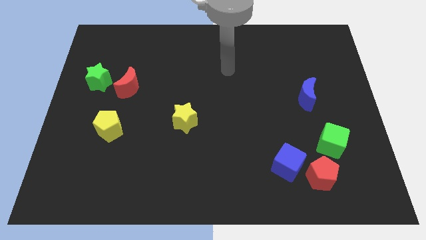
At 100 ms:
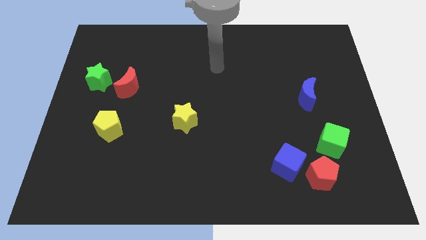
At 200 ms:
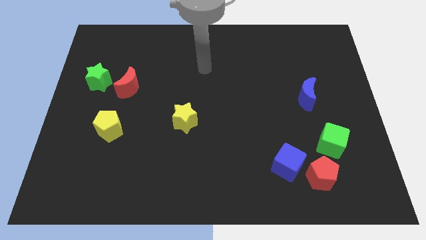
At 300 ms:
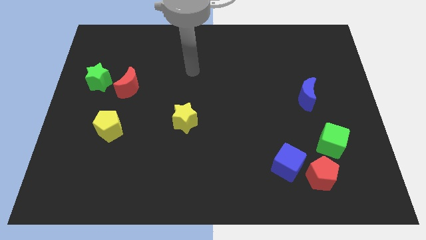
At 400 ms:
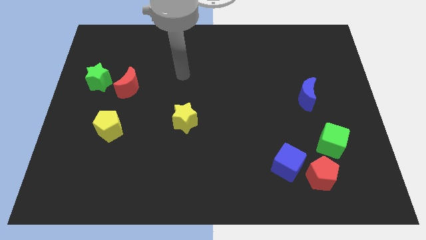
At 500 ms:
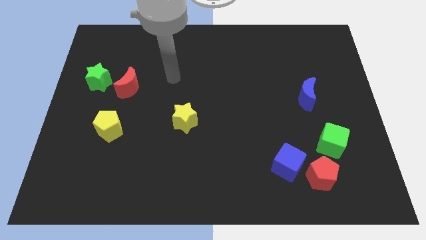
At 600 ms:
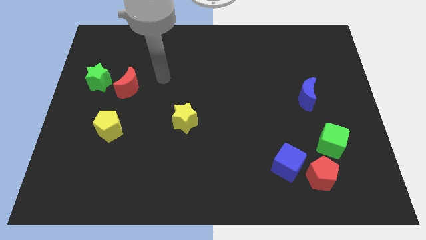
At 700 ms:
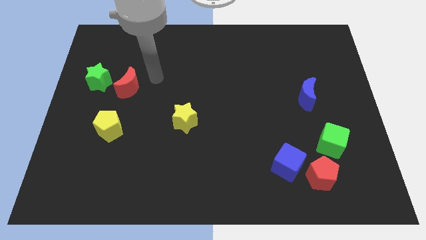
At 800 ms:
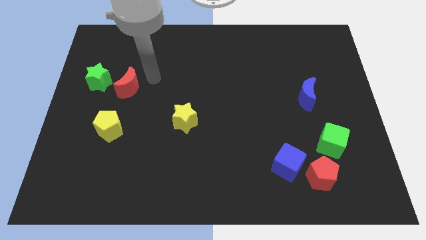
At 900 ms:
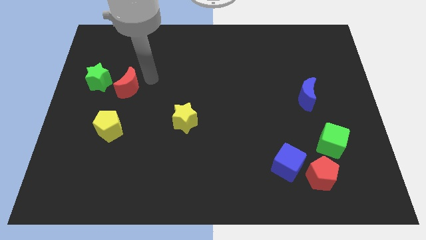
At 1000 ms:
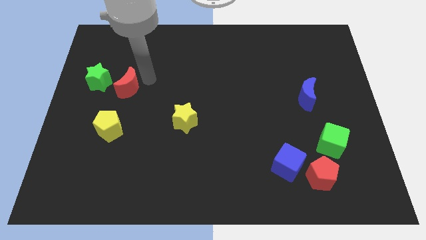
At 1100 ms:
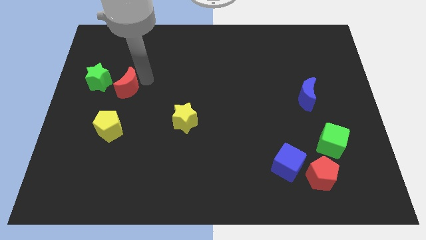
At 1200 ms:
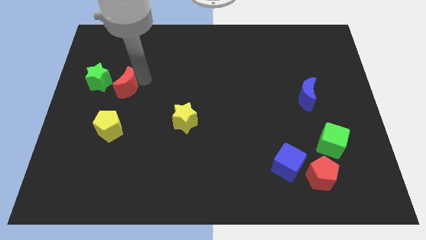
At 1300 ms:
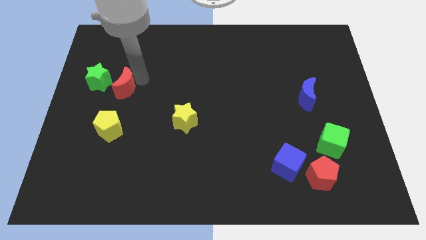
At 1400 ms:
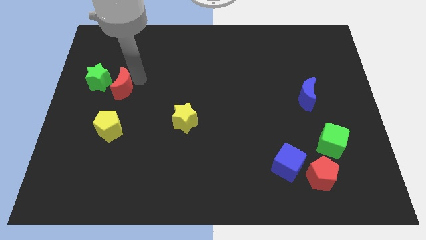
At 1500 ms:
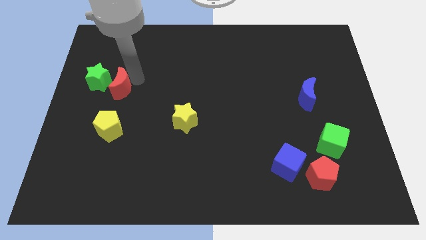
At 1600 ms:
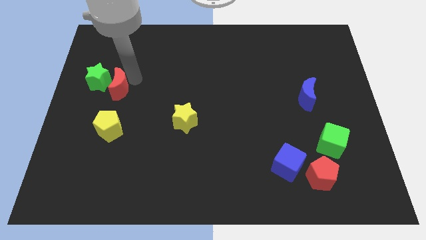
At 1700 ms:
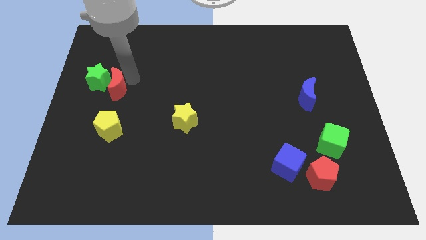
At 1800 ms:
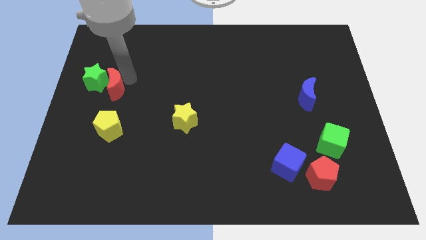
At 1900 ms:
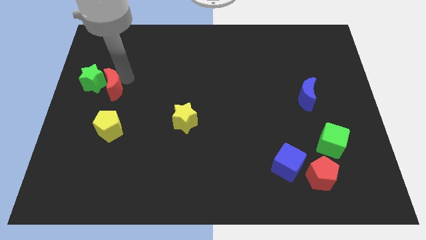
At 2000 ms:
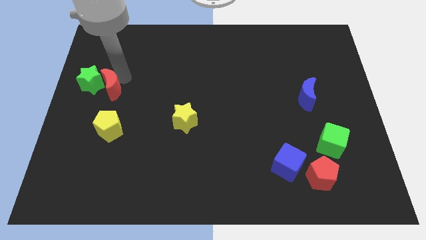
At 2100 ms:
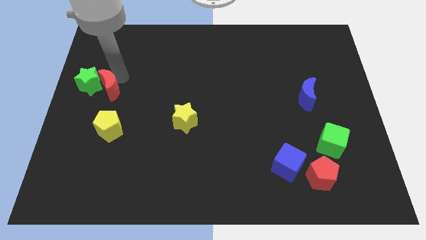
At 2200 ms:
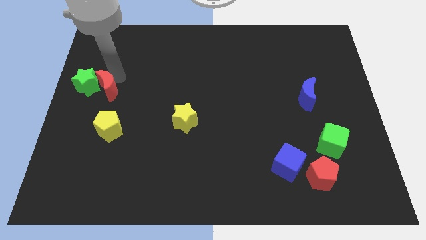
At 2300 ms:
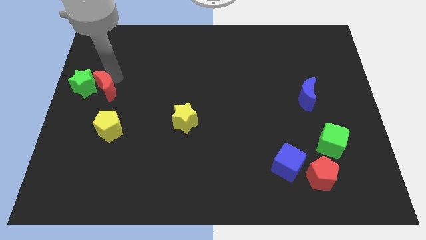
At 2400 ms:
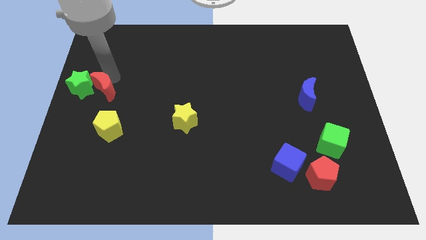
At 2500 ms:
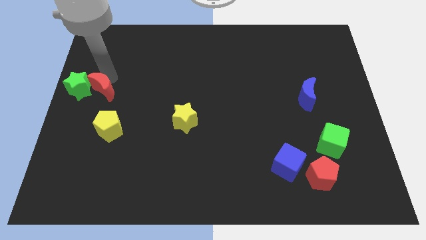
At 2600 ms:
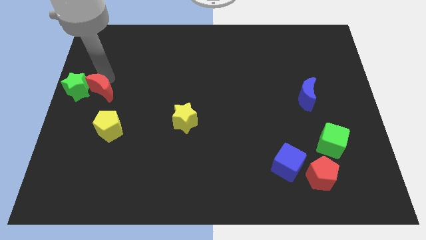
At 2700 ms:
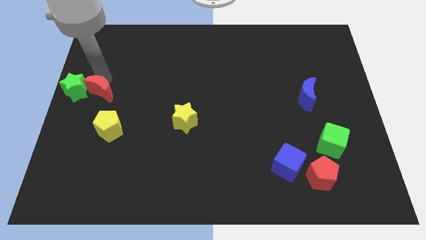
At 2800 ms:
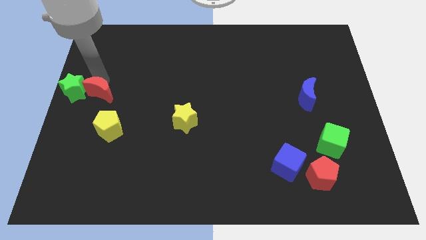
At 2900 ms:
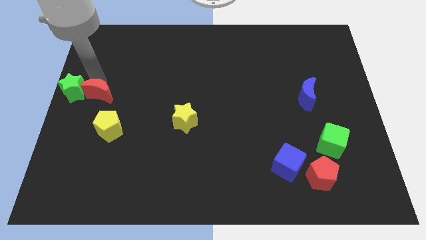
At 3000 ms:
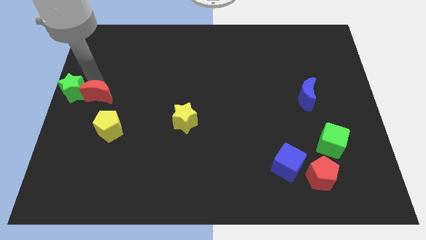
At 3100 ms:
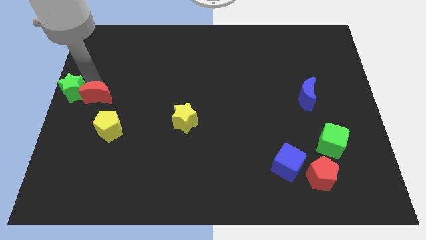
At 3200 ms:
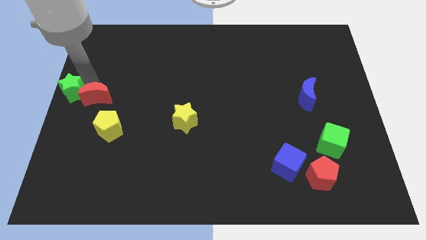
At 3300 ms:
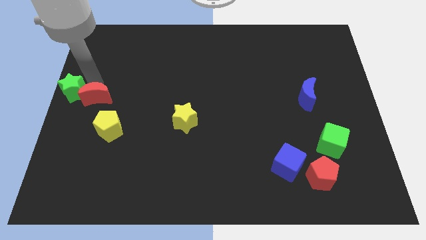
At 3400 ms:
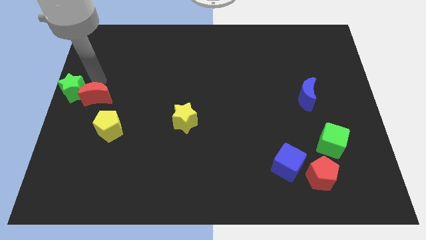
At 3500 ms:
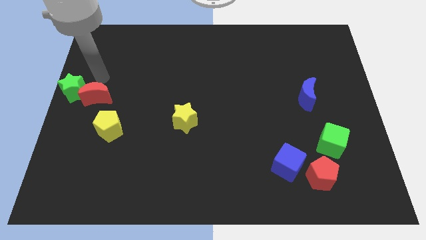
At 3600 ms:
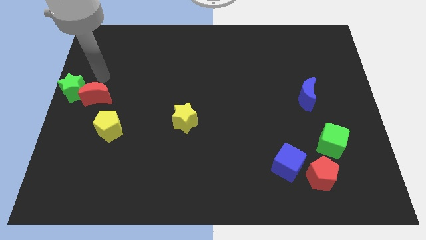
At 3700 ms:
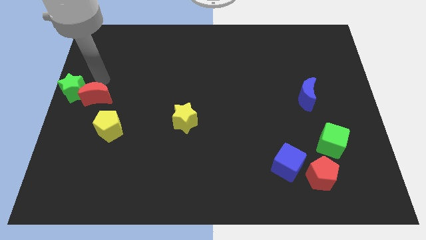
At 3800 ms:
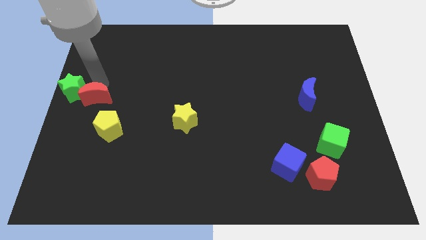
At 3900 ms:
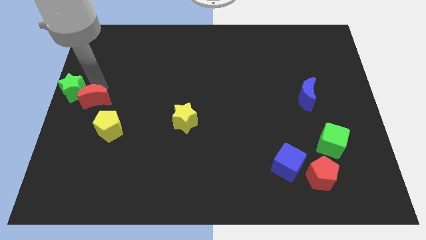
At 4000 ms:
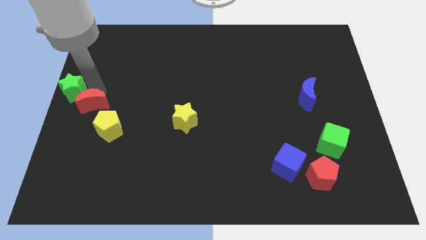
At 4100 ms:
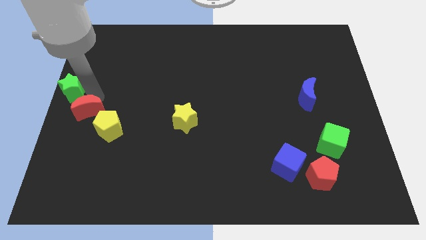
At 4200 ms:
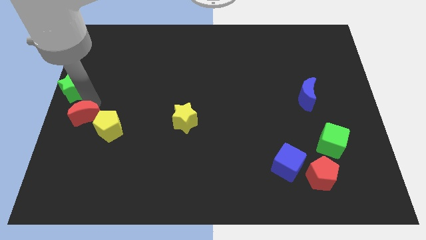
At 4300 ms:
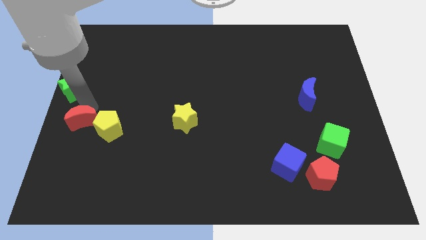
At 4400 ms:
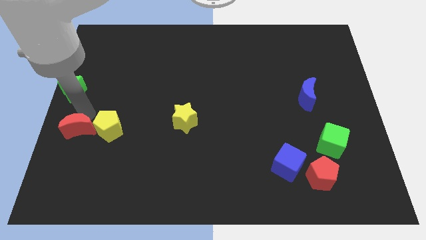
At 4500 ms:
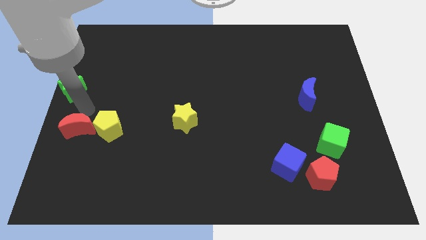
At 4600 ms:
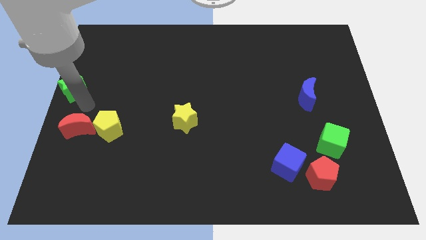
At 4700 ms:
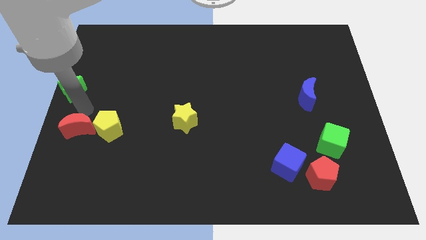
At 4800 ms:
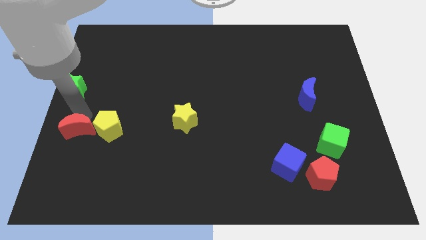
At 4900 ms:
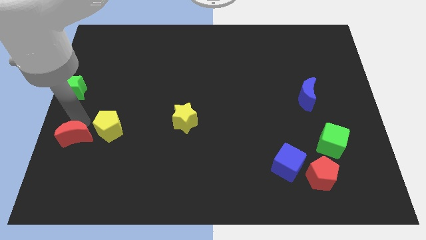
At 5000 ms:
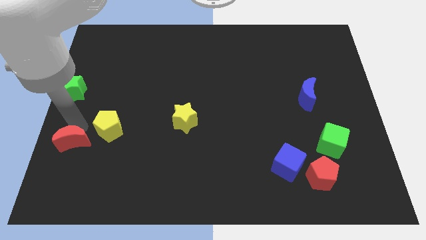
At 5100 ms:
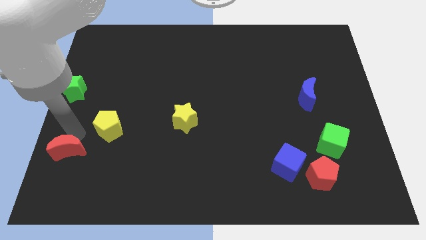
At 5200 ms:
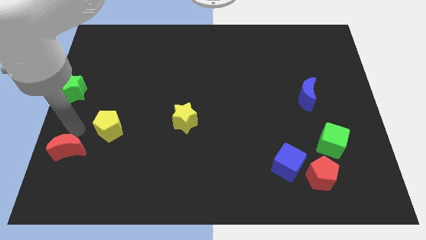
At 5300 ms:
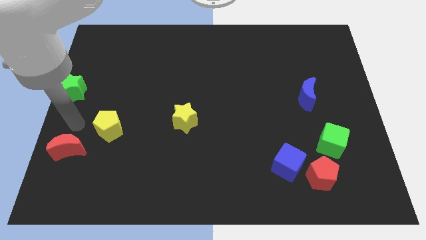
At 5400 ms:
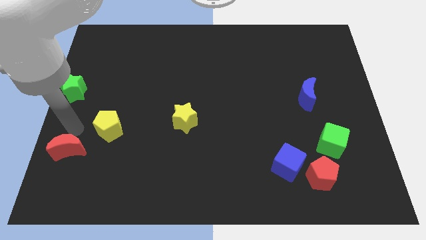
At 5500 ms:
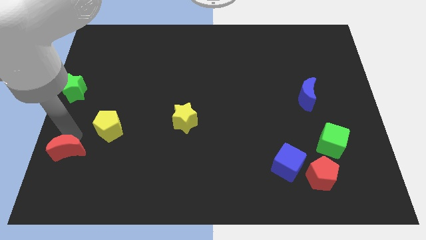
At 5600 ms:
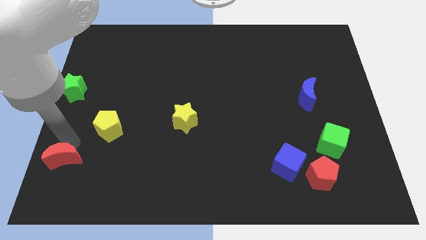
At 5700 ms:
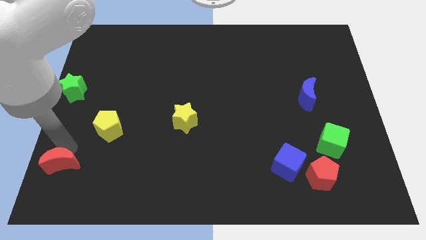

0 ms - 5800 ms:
put the red moon to the bottom left

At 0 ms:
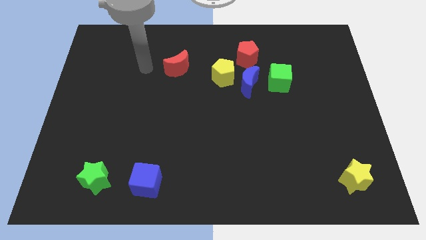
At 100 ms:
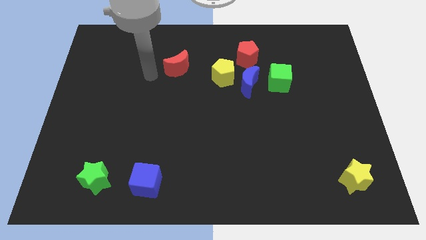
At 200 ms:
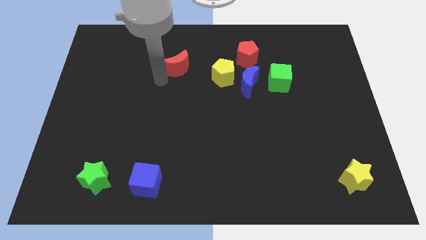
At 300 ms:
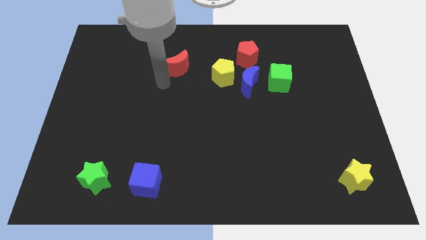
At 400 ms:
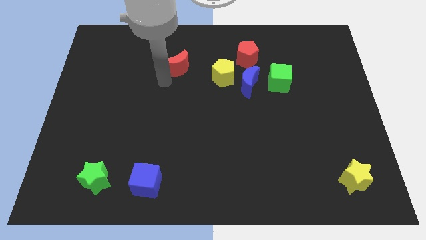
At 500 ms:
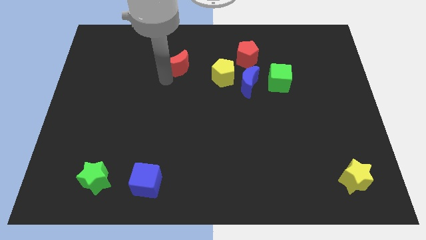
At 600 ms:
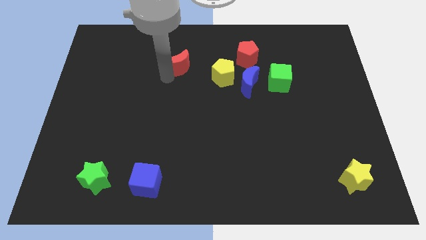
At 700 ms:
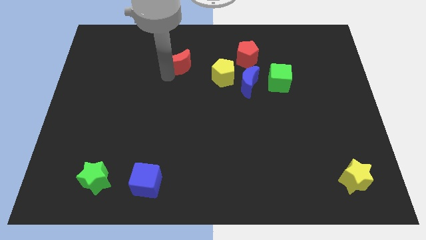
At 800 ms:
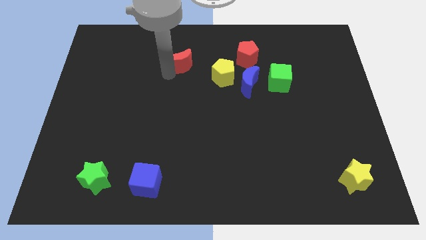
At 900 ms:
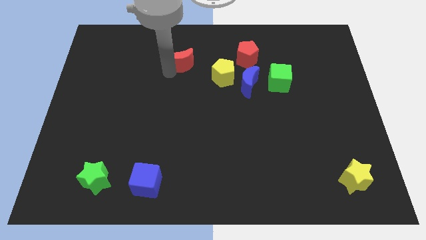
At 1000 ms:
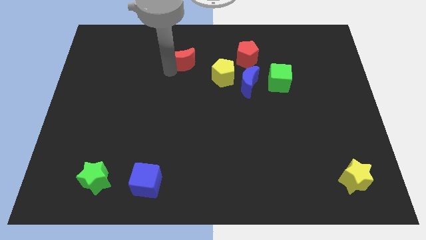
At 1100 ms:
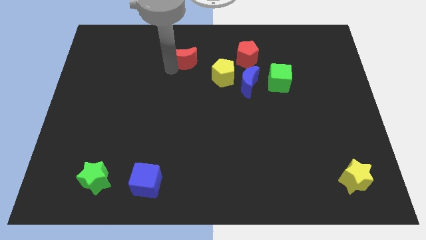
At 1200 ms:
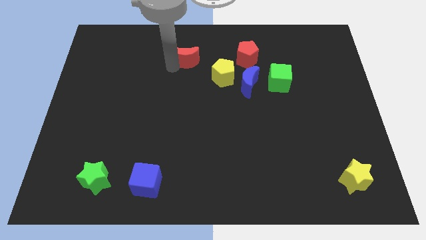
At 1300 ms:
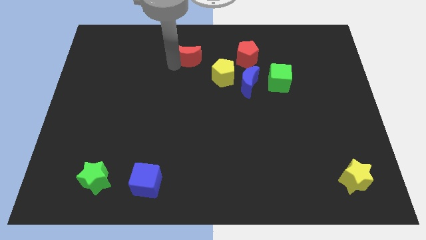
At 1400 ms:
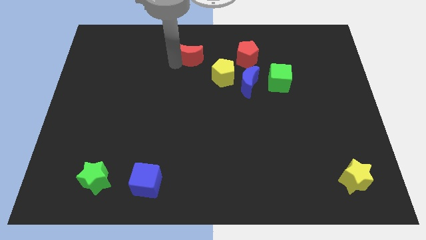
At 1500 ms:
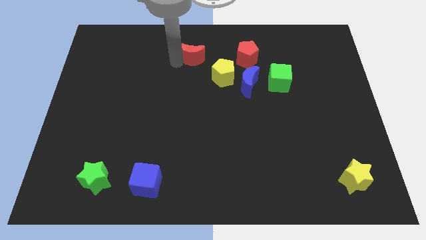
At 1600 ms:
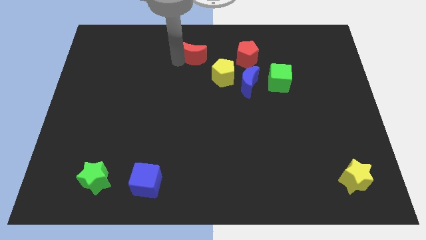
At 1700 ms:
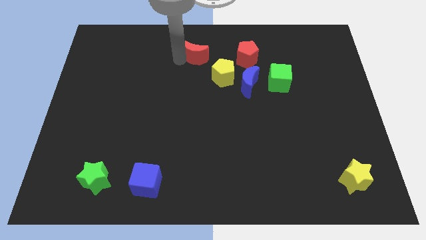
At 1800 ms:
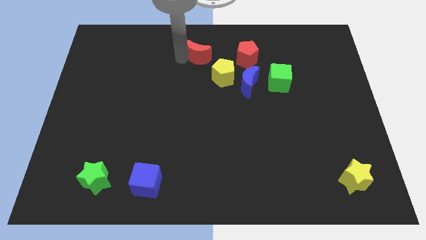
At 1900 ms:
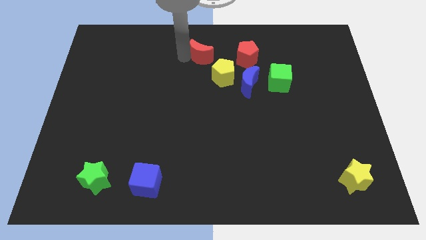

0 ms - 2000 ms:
push the red moon to the top
